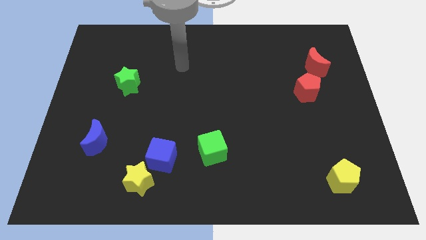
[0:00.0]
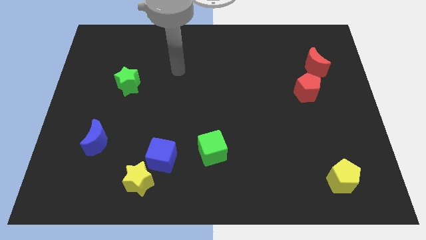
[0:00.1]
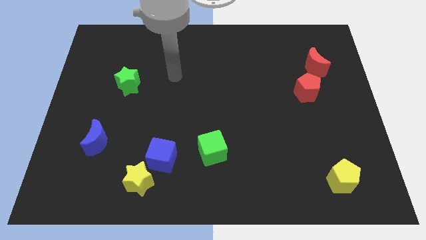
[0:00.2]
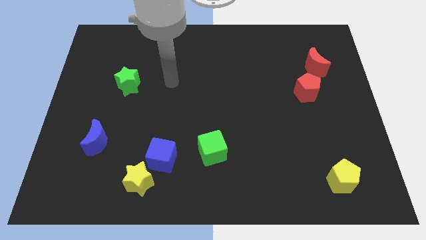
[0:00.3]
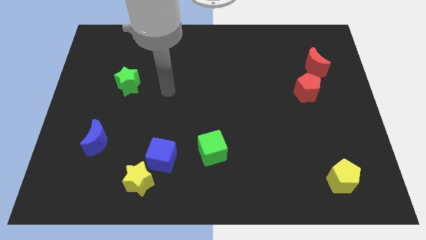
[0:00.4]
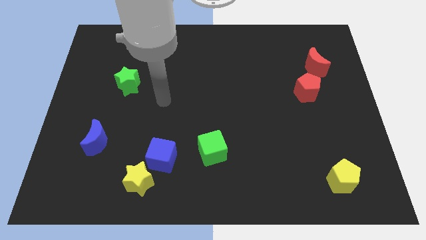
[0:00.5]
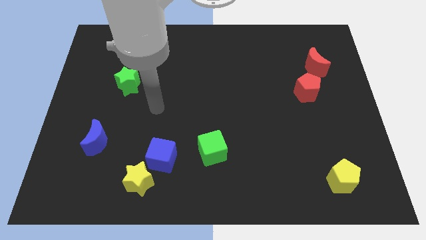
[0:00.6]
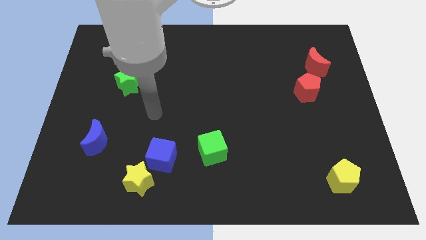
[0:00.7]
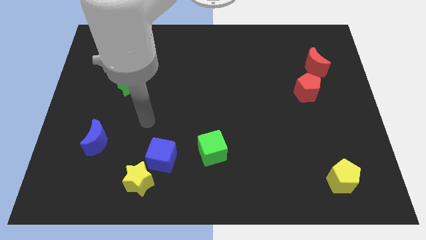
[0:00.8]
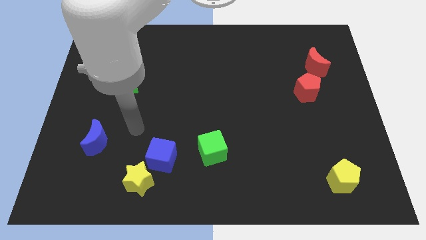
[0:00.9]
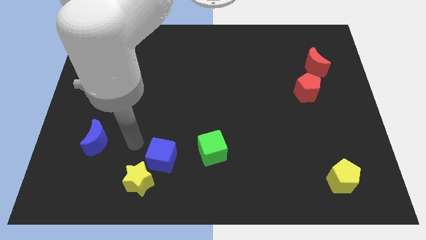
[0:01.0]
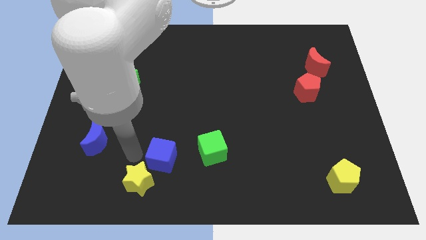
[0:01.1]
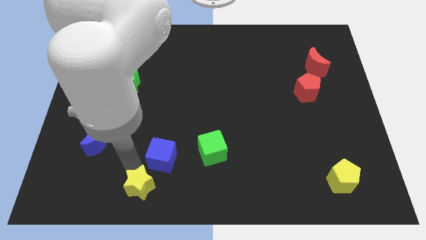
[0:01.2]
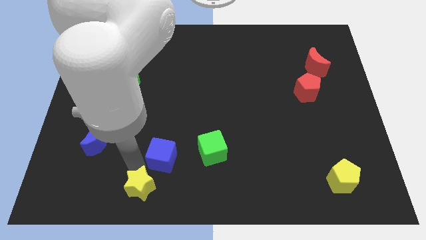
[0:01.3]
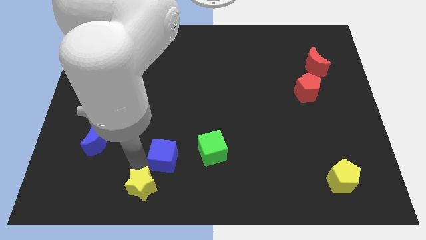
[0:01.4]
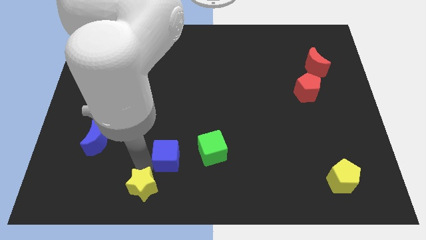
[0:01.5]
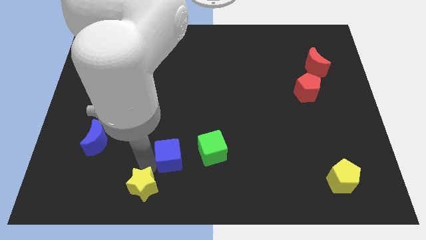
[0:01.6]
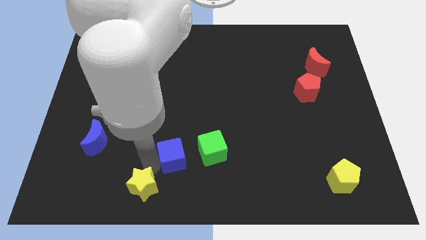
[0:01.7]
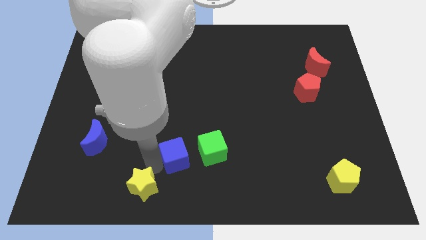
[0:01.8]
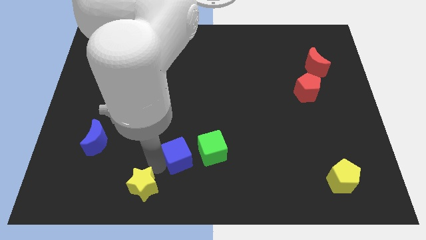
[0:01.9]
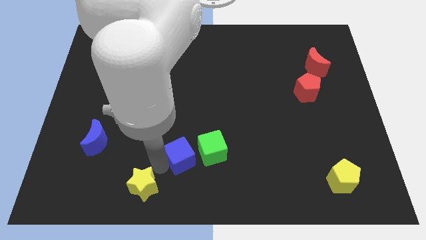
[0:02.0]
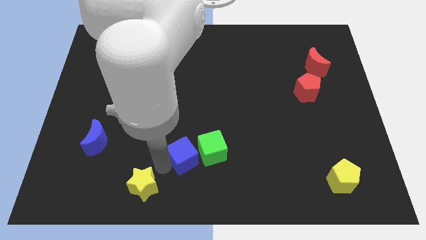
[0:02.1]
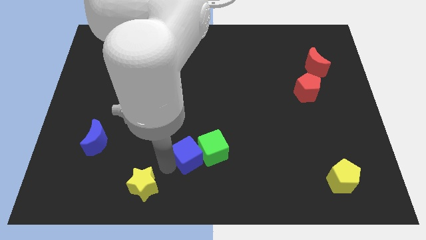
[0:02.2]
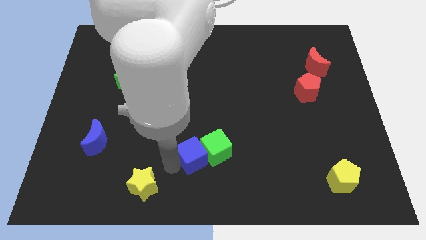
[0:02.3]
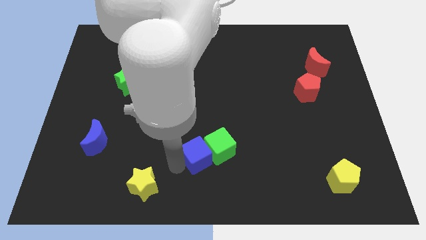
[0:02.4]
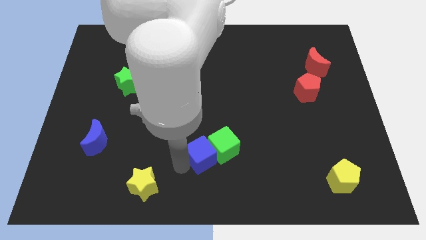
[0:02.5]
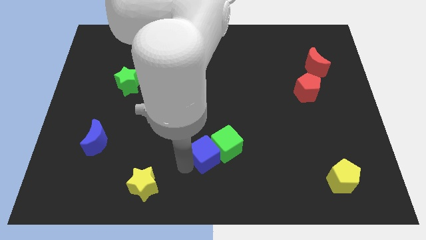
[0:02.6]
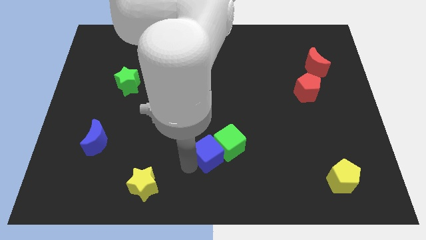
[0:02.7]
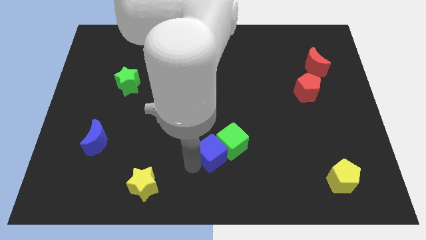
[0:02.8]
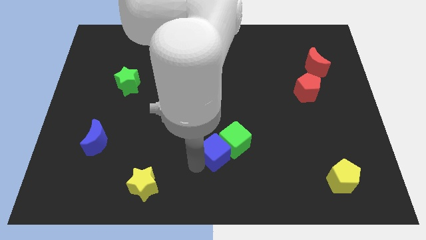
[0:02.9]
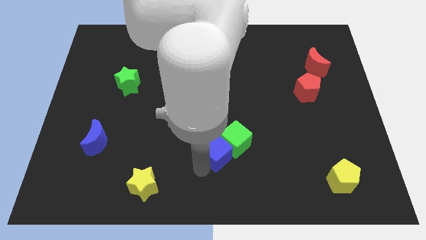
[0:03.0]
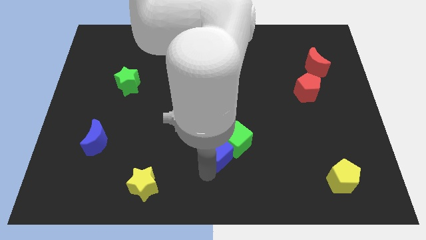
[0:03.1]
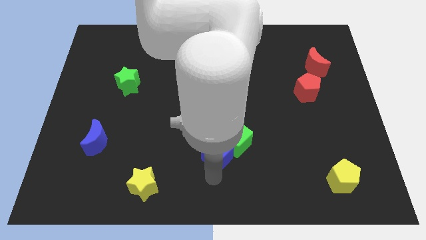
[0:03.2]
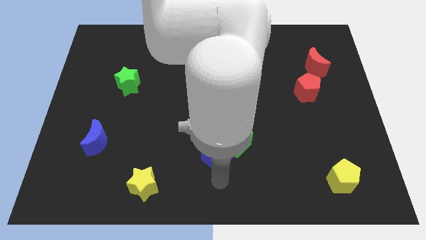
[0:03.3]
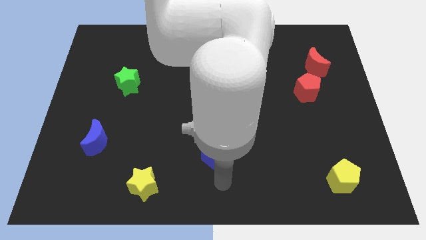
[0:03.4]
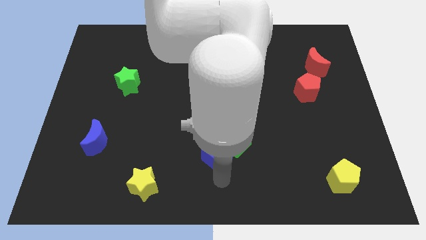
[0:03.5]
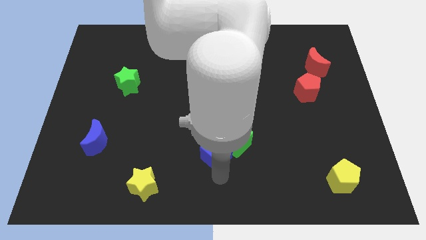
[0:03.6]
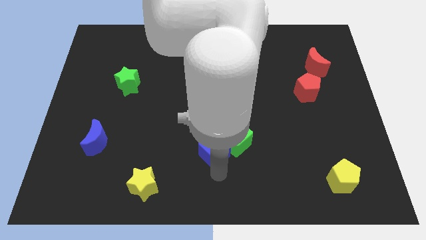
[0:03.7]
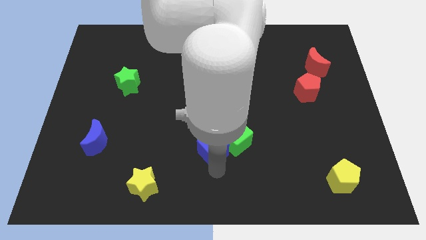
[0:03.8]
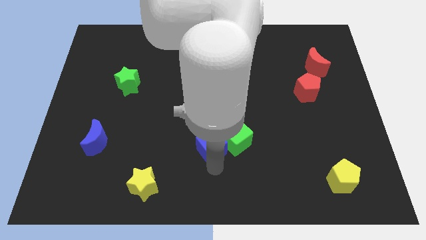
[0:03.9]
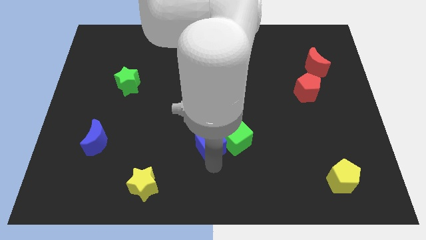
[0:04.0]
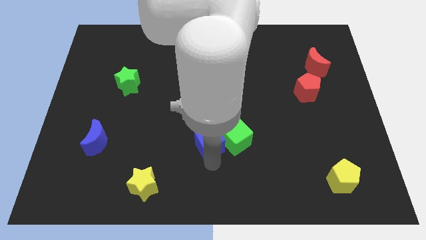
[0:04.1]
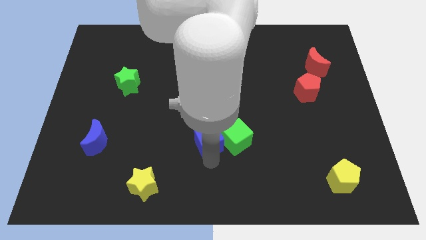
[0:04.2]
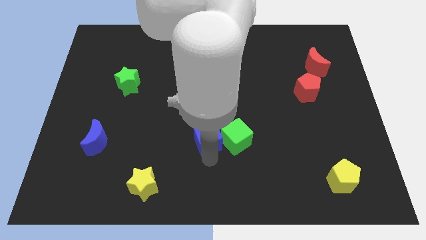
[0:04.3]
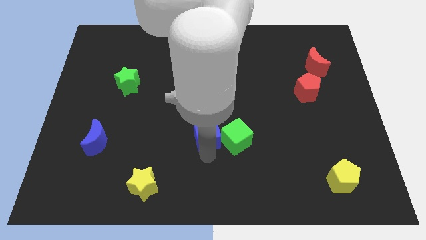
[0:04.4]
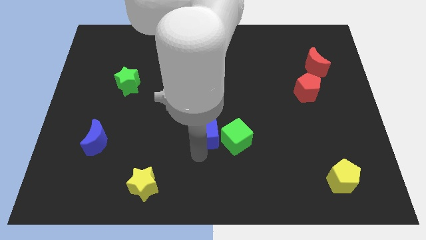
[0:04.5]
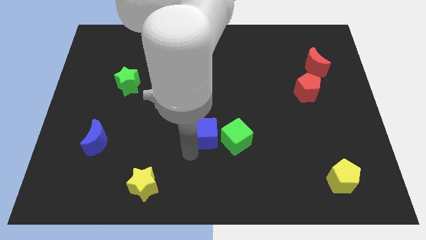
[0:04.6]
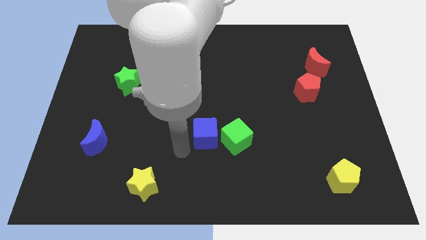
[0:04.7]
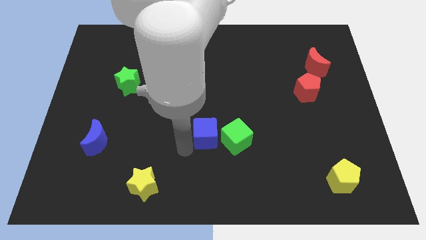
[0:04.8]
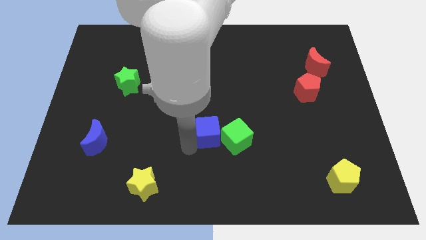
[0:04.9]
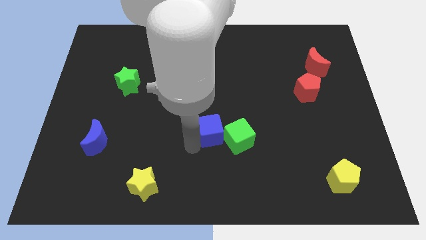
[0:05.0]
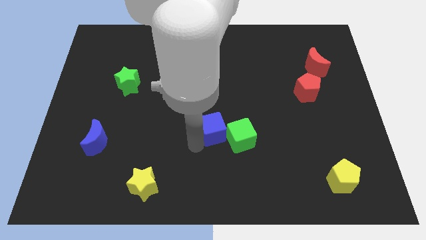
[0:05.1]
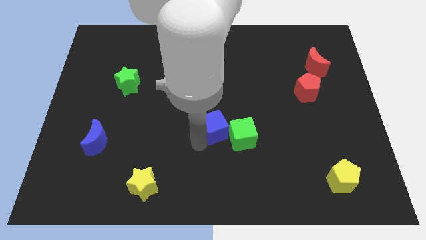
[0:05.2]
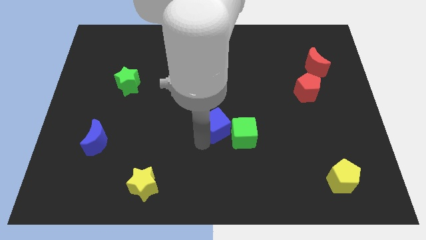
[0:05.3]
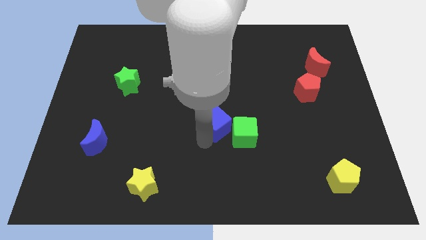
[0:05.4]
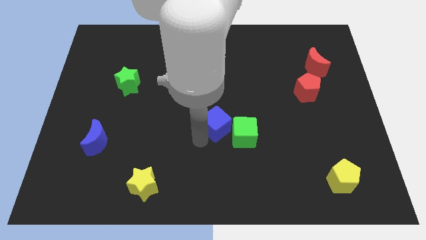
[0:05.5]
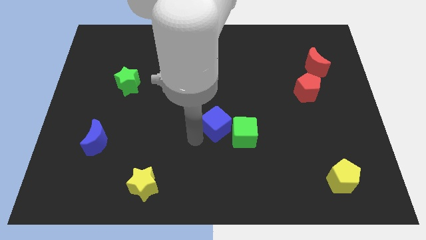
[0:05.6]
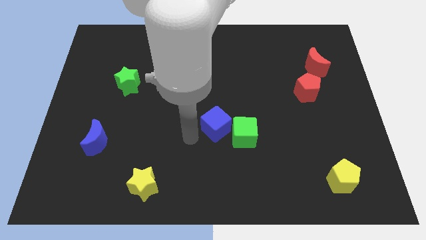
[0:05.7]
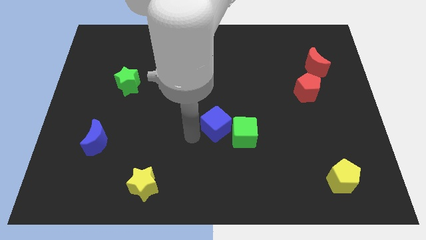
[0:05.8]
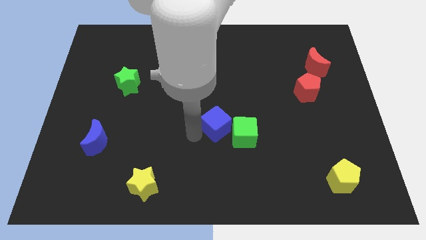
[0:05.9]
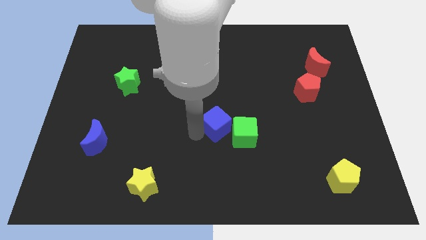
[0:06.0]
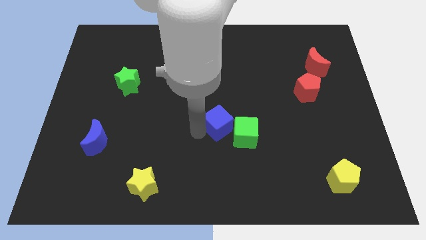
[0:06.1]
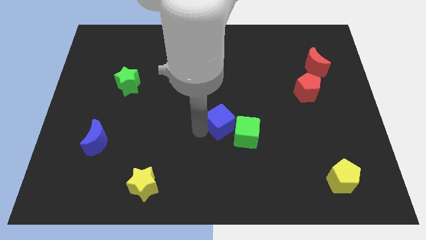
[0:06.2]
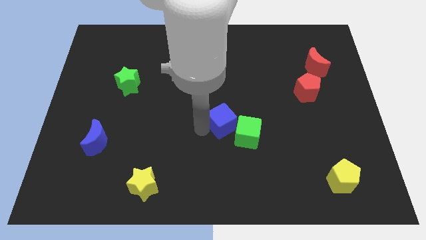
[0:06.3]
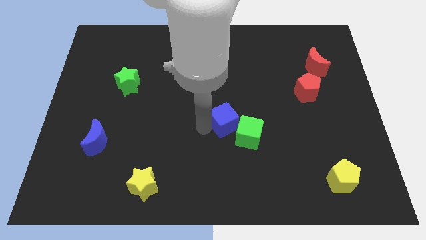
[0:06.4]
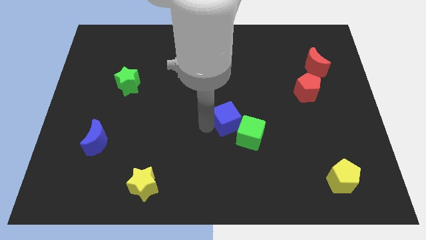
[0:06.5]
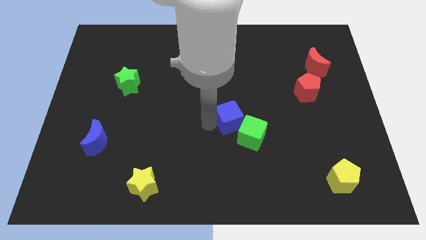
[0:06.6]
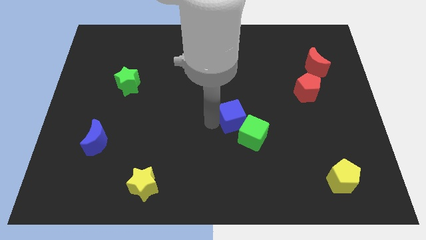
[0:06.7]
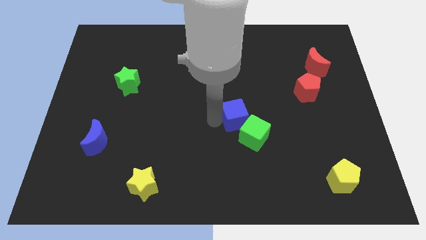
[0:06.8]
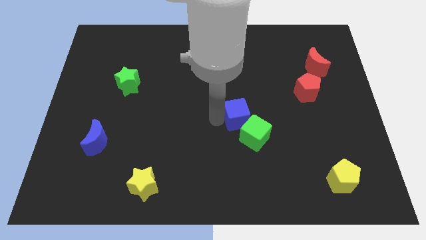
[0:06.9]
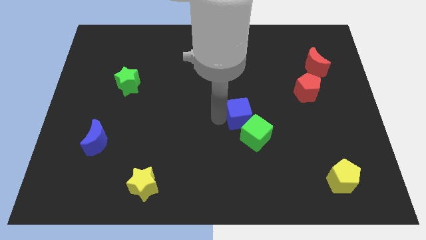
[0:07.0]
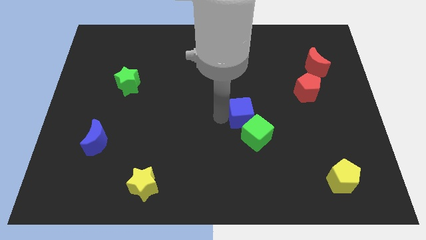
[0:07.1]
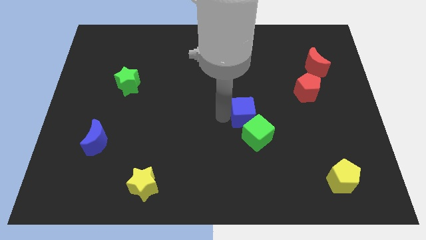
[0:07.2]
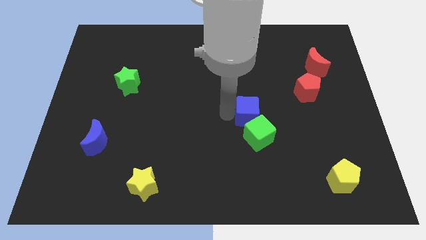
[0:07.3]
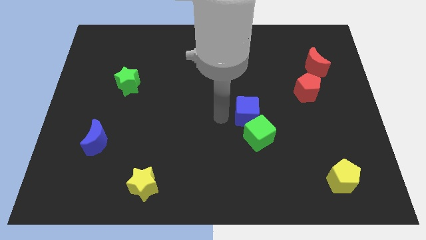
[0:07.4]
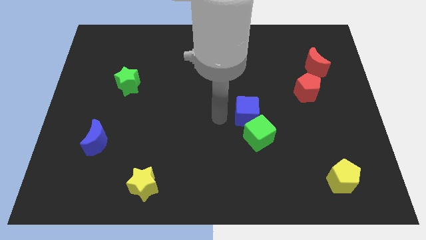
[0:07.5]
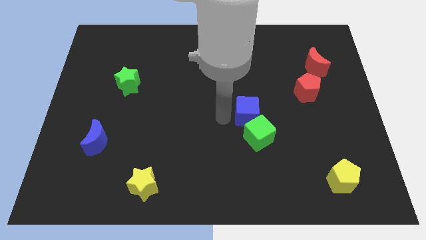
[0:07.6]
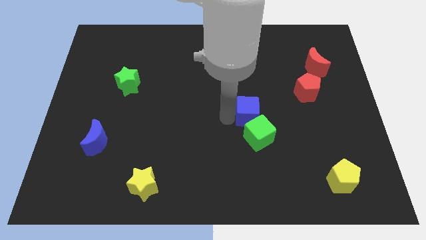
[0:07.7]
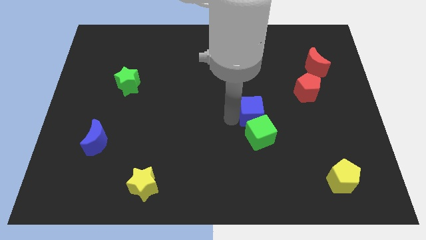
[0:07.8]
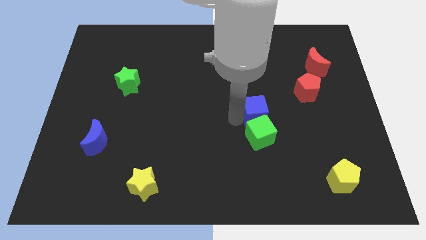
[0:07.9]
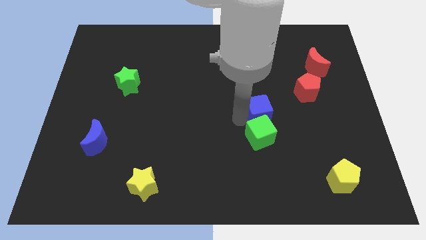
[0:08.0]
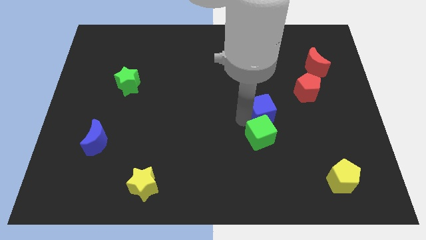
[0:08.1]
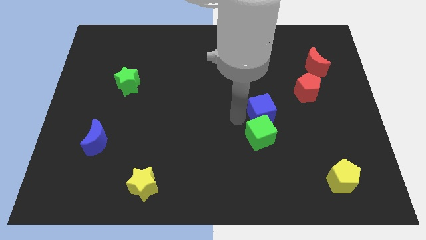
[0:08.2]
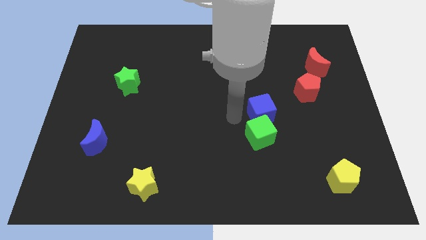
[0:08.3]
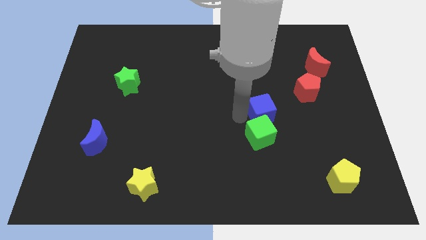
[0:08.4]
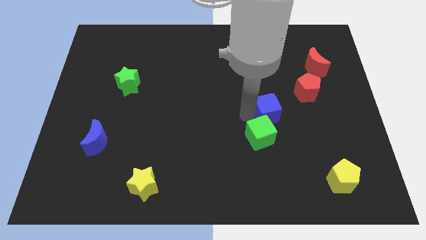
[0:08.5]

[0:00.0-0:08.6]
push the blue cube diagonally down and to the left of the red pentagon
